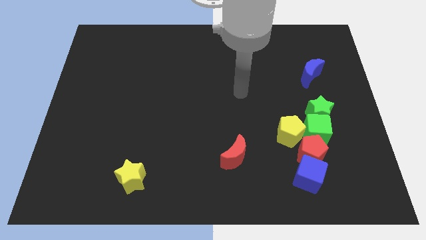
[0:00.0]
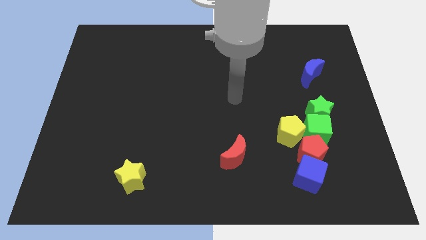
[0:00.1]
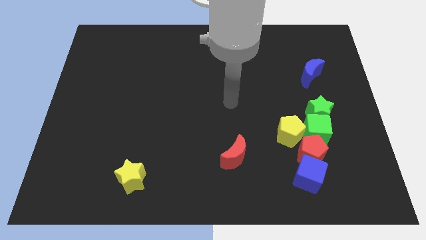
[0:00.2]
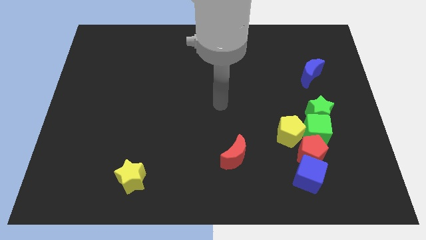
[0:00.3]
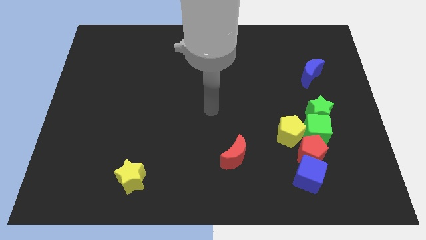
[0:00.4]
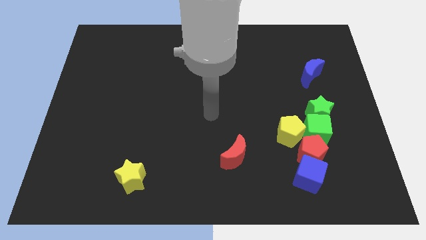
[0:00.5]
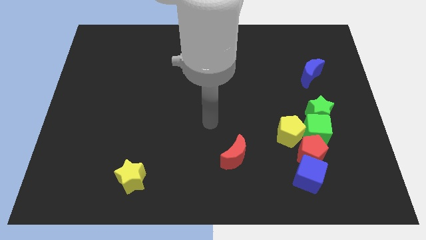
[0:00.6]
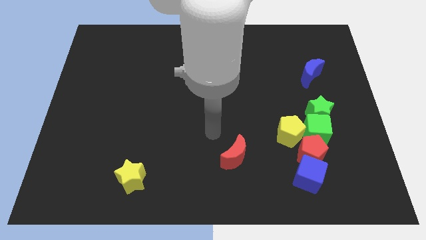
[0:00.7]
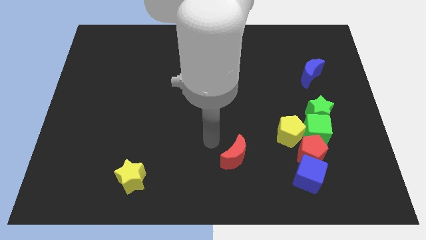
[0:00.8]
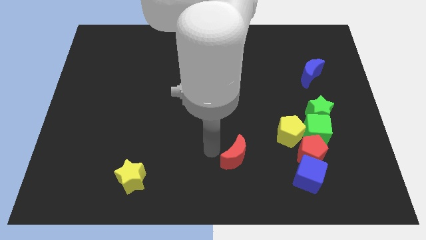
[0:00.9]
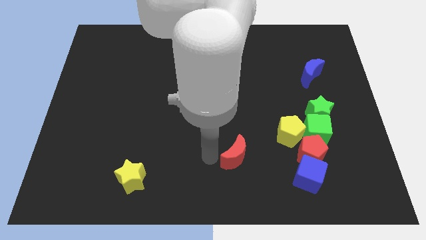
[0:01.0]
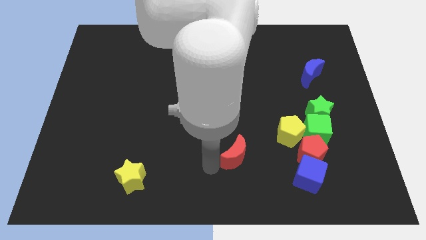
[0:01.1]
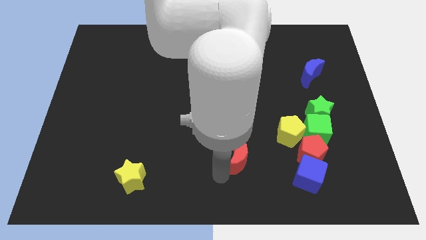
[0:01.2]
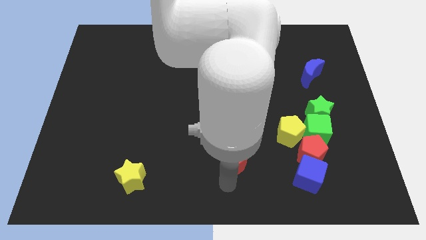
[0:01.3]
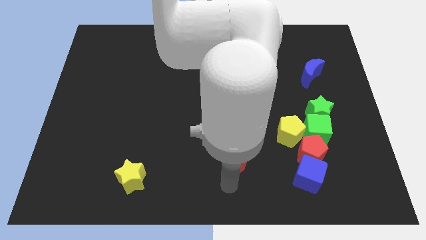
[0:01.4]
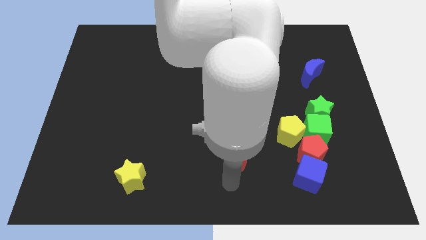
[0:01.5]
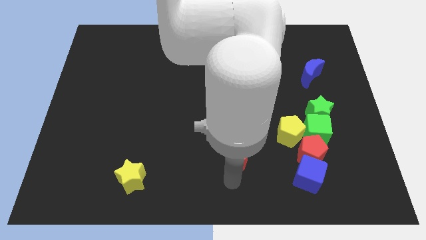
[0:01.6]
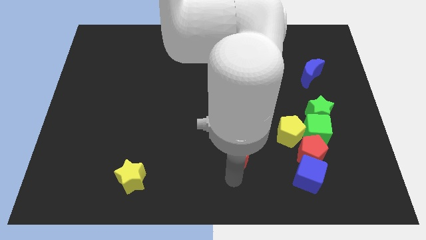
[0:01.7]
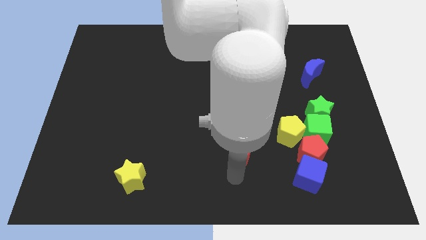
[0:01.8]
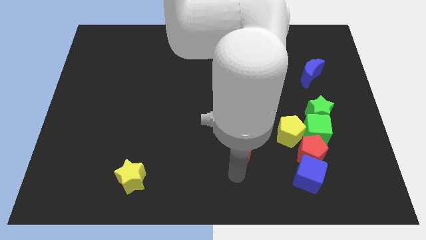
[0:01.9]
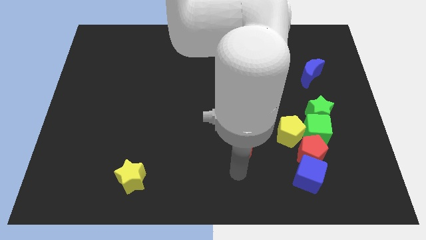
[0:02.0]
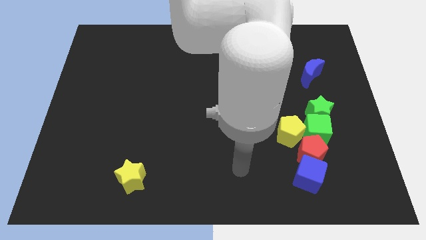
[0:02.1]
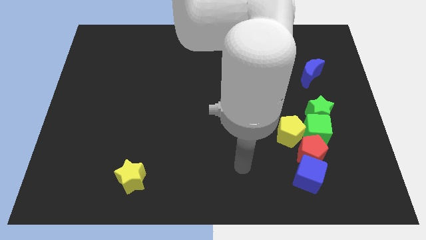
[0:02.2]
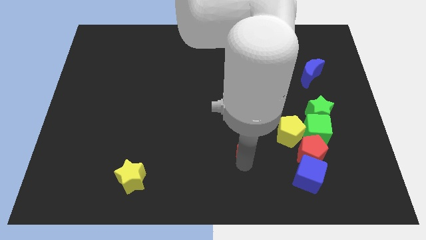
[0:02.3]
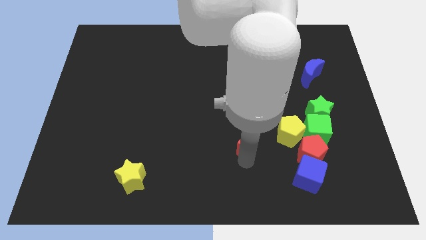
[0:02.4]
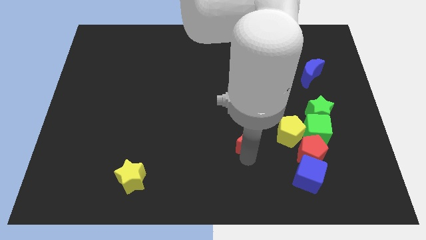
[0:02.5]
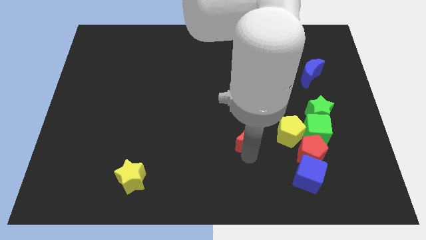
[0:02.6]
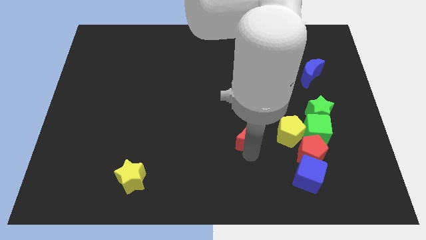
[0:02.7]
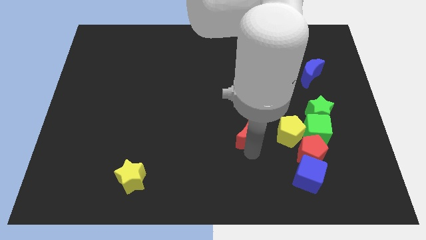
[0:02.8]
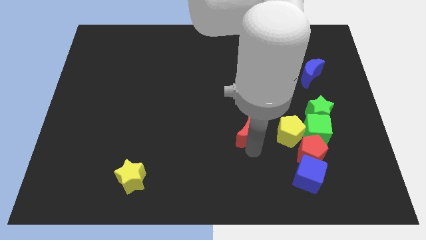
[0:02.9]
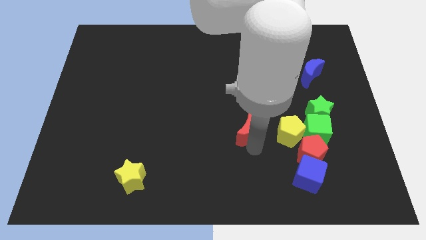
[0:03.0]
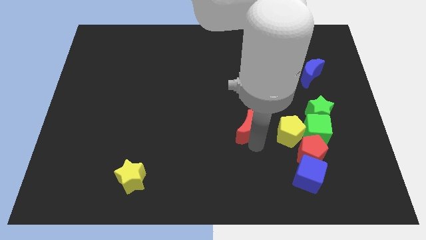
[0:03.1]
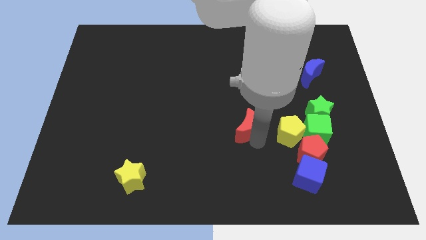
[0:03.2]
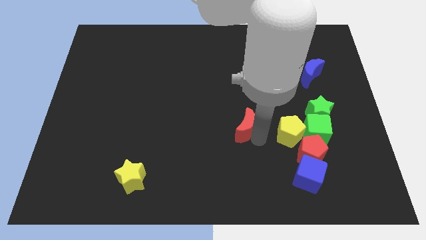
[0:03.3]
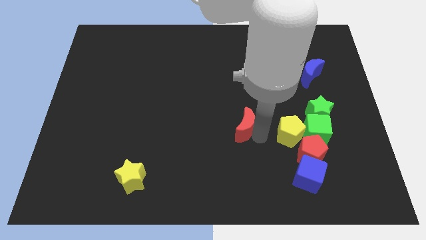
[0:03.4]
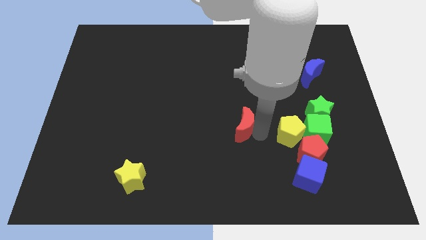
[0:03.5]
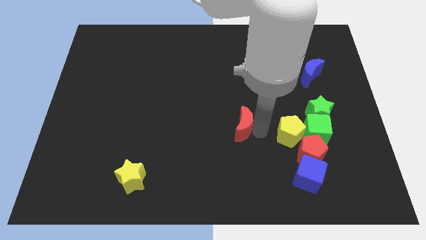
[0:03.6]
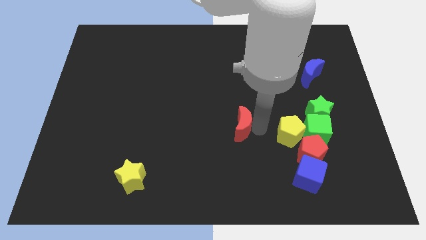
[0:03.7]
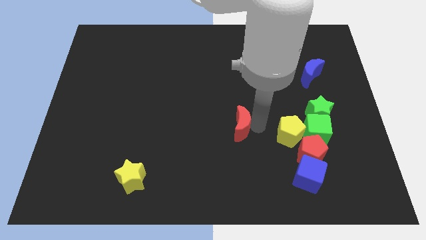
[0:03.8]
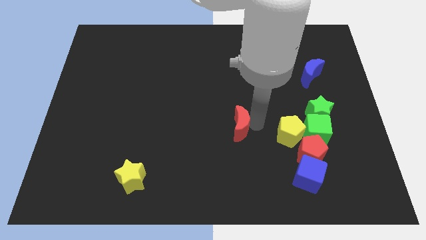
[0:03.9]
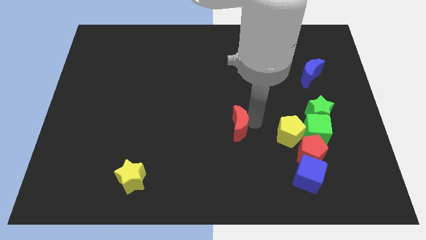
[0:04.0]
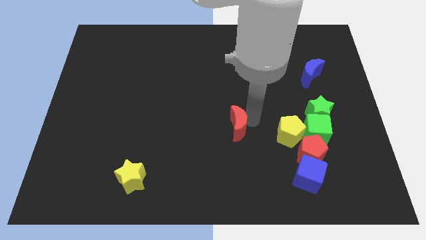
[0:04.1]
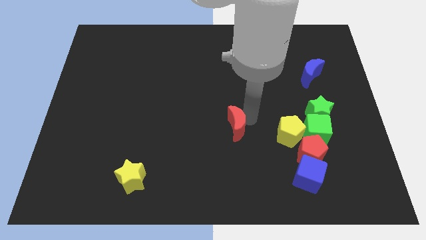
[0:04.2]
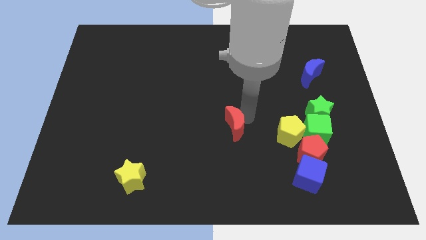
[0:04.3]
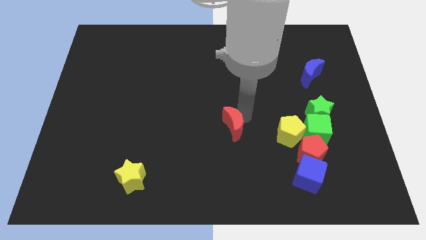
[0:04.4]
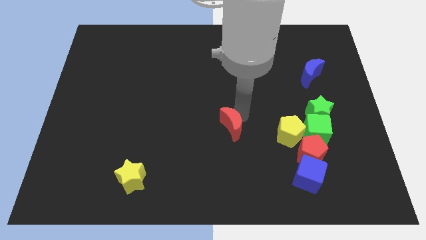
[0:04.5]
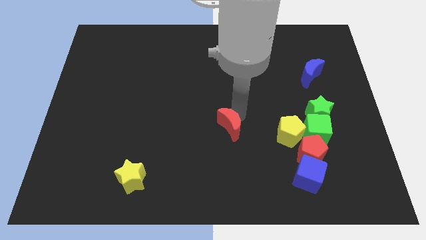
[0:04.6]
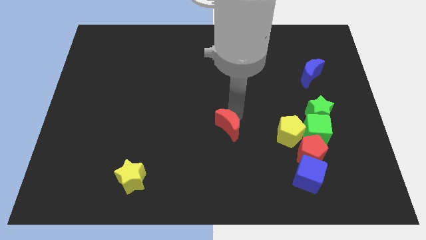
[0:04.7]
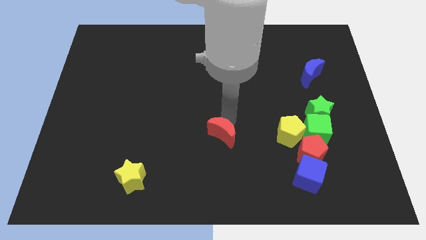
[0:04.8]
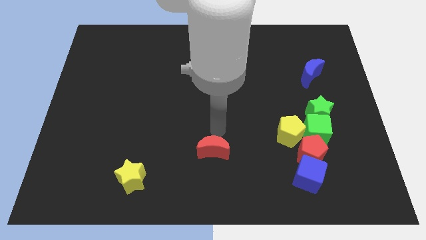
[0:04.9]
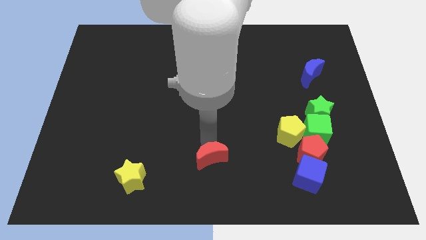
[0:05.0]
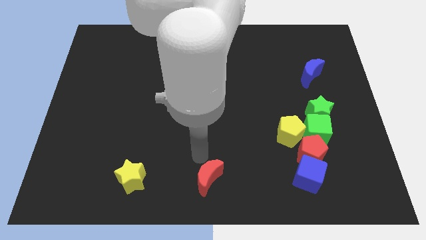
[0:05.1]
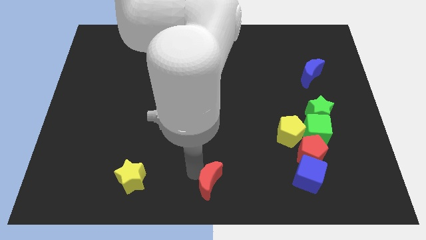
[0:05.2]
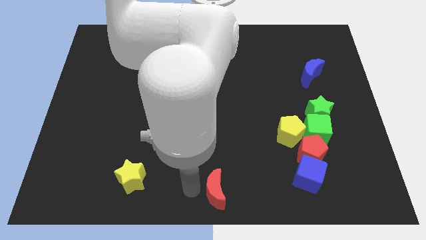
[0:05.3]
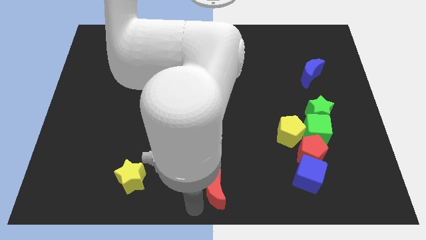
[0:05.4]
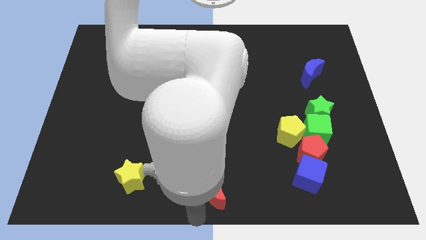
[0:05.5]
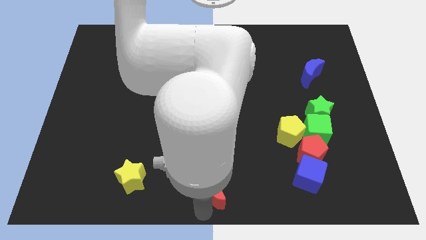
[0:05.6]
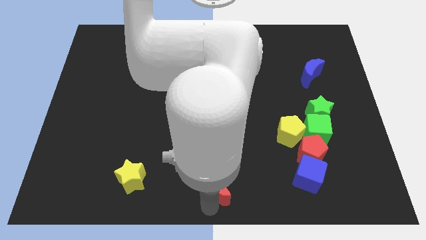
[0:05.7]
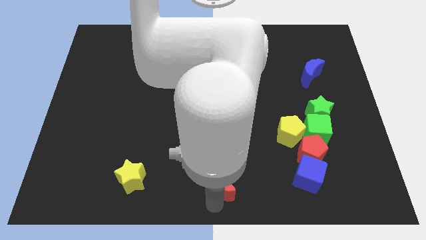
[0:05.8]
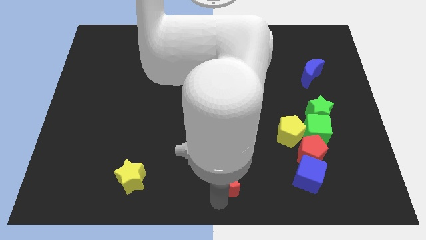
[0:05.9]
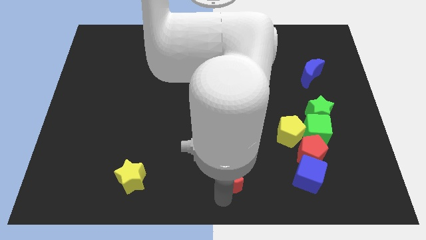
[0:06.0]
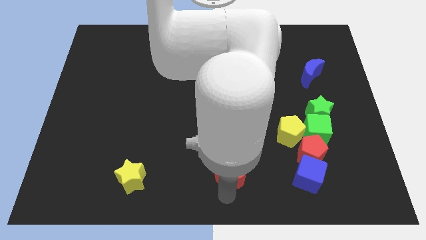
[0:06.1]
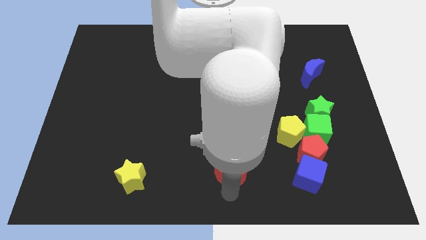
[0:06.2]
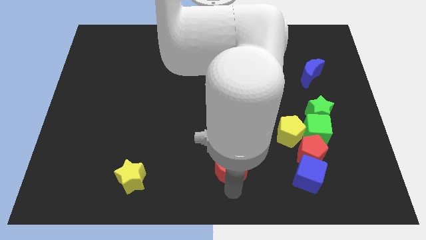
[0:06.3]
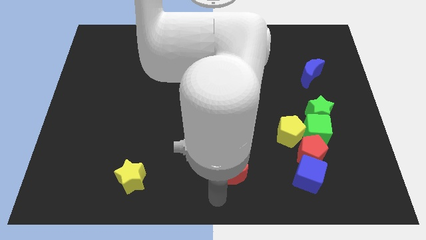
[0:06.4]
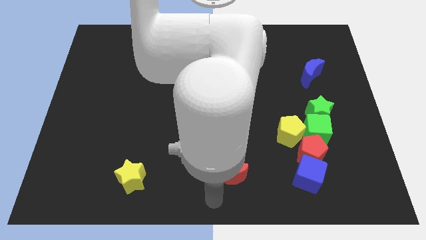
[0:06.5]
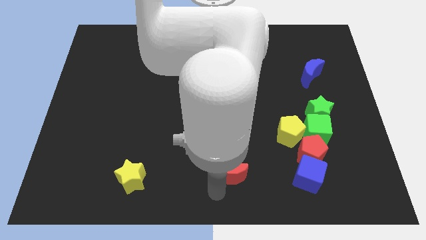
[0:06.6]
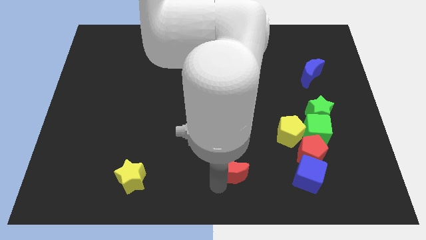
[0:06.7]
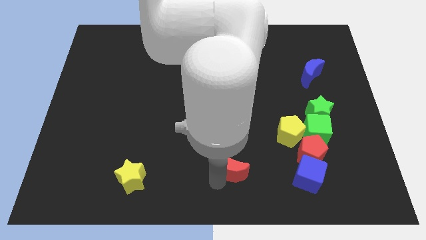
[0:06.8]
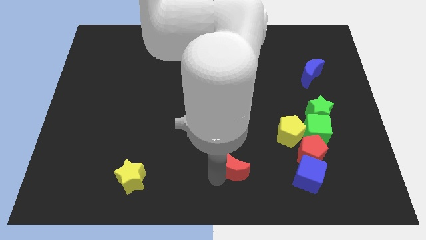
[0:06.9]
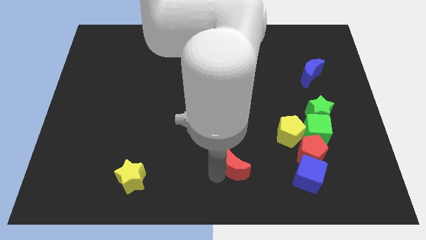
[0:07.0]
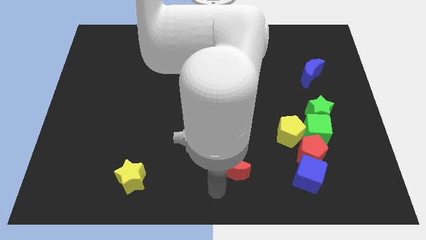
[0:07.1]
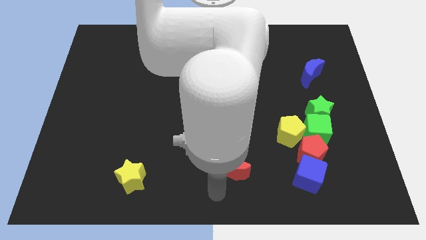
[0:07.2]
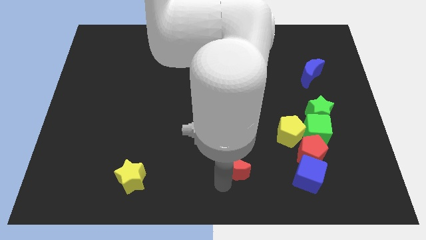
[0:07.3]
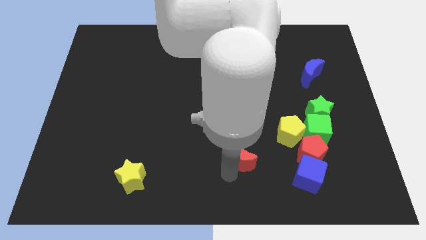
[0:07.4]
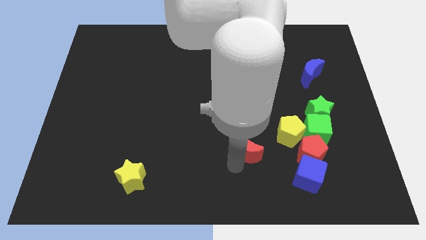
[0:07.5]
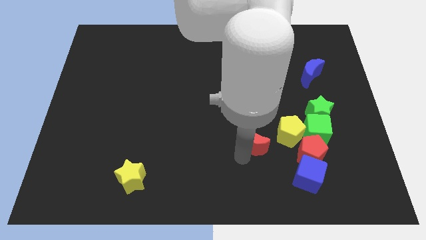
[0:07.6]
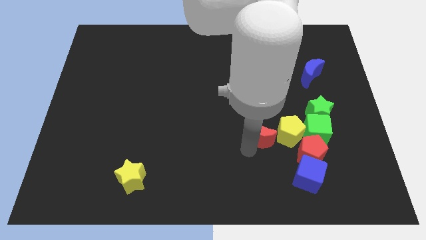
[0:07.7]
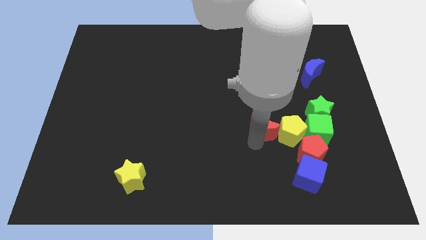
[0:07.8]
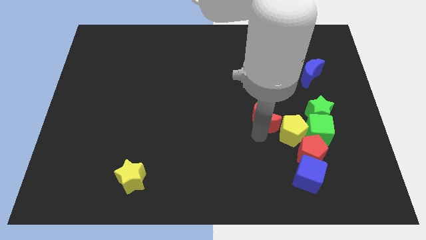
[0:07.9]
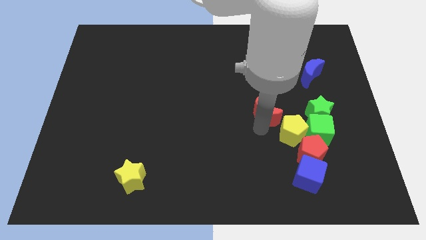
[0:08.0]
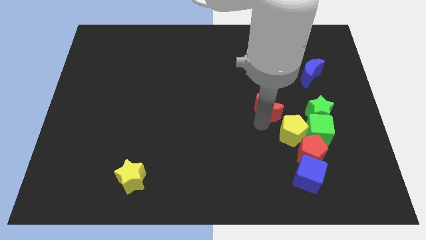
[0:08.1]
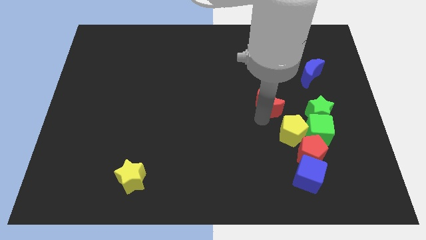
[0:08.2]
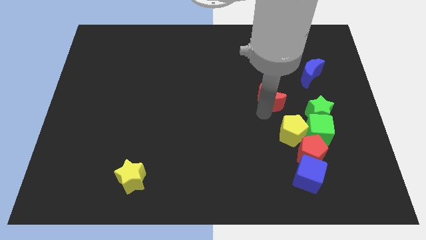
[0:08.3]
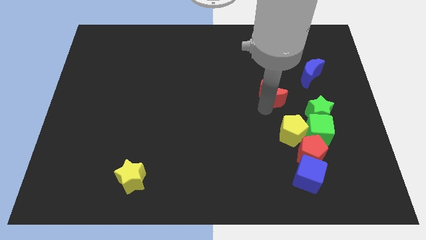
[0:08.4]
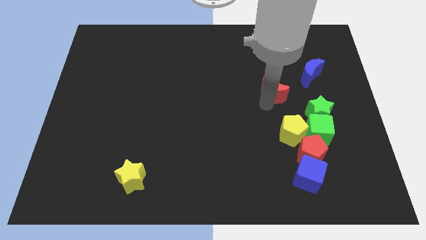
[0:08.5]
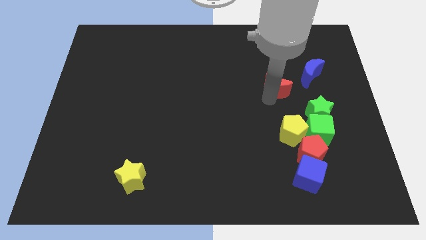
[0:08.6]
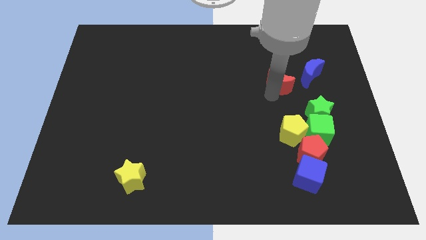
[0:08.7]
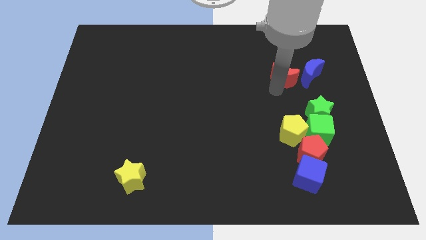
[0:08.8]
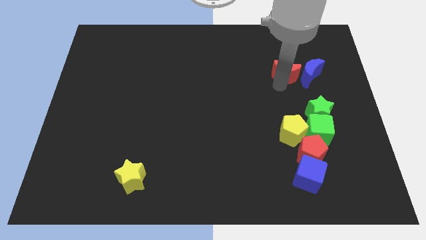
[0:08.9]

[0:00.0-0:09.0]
push the red moon to the top left of the blue moon
